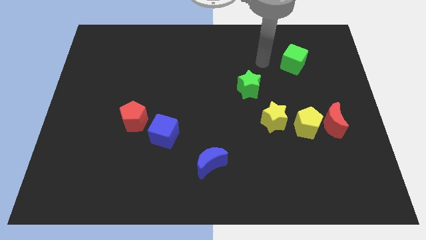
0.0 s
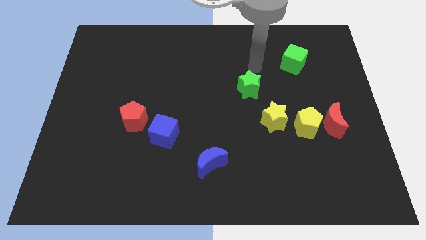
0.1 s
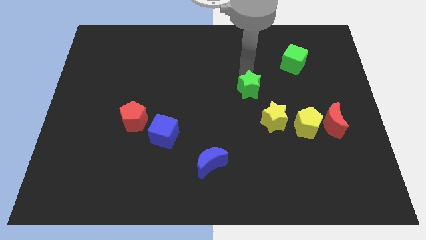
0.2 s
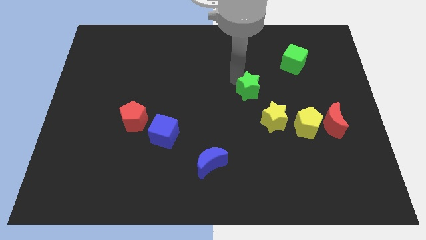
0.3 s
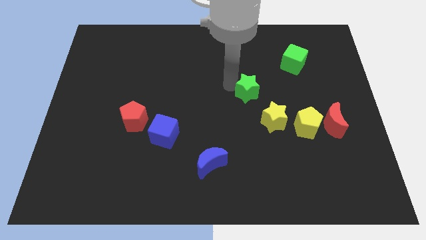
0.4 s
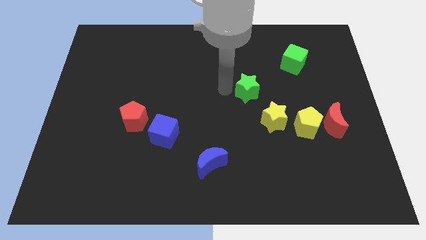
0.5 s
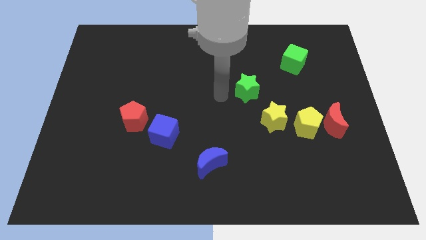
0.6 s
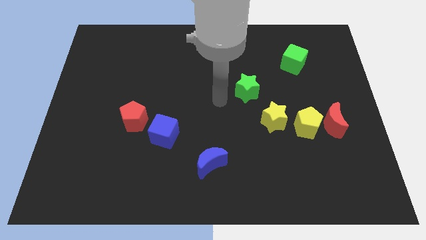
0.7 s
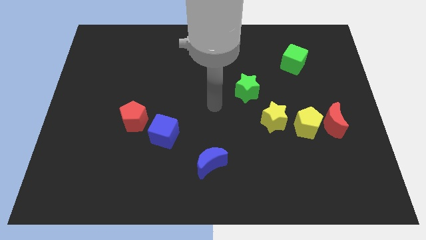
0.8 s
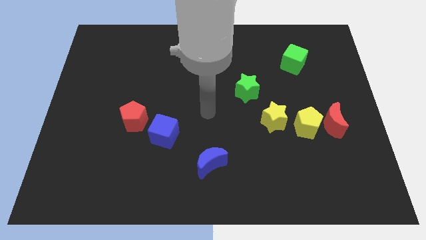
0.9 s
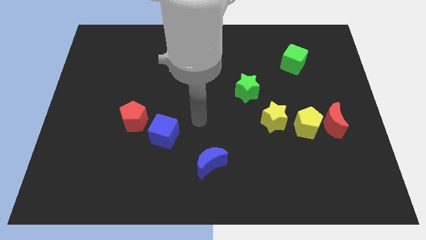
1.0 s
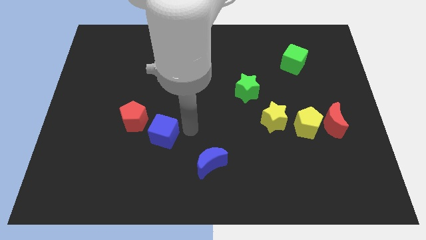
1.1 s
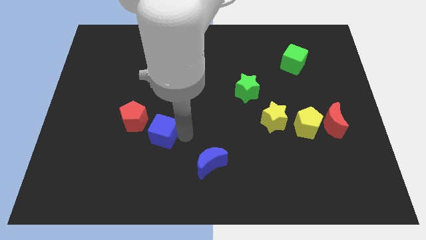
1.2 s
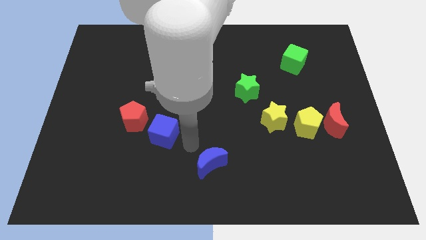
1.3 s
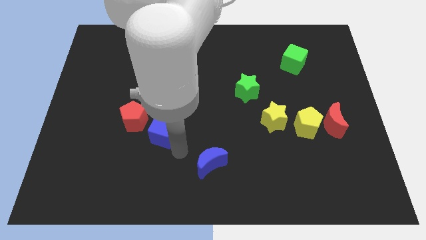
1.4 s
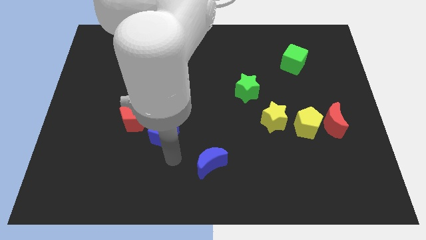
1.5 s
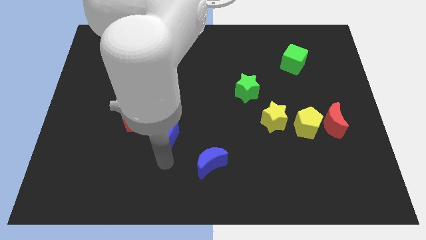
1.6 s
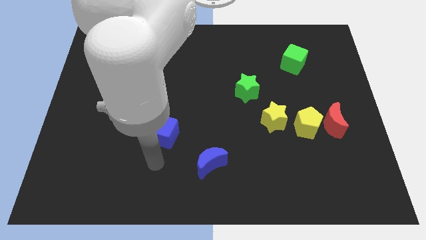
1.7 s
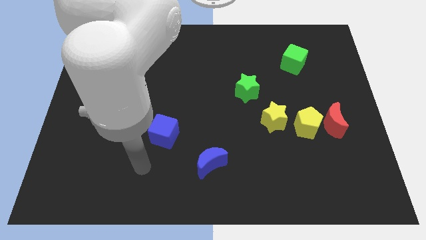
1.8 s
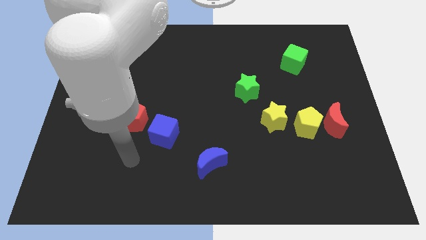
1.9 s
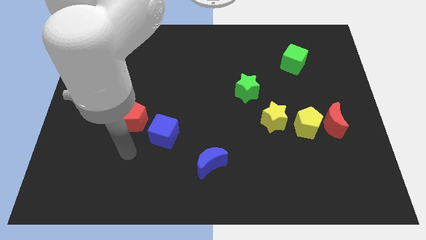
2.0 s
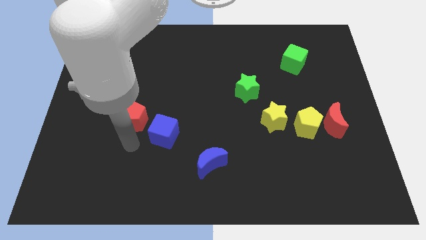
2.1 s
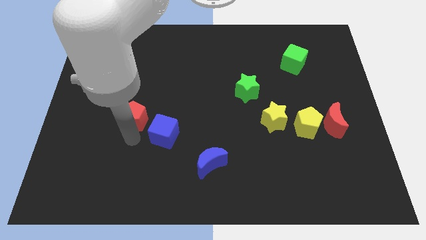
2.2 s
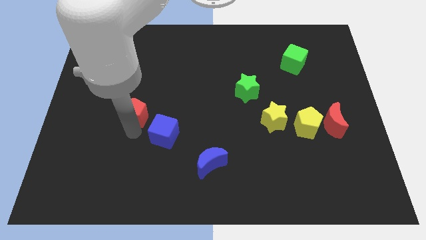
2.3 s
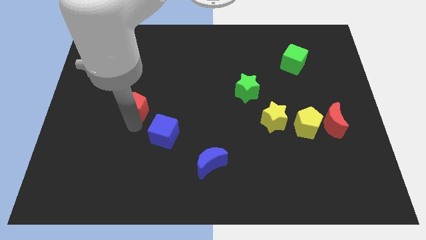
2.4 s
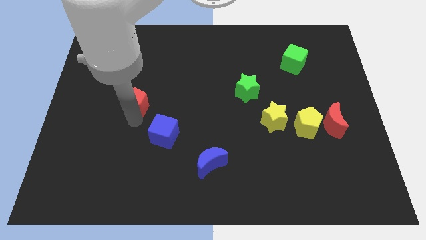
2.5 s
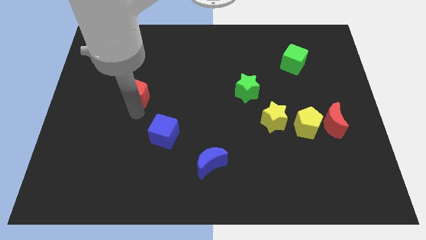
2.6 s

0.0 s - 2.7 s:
move the red pentagon up somewhat

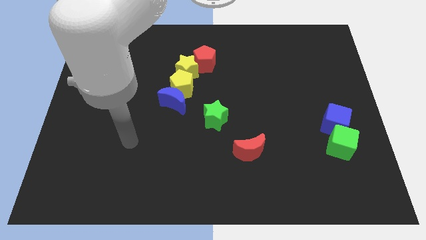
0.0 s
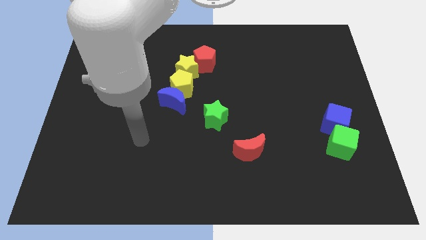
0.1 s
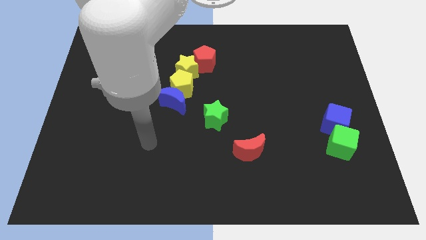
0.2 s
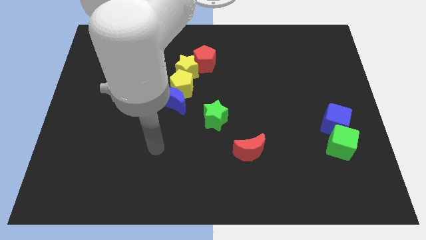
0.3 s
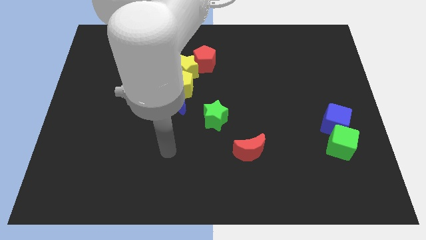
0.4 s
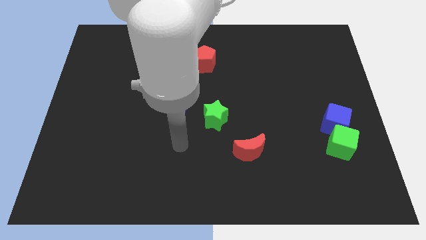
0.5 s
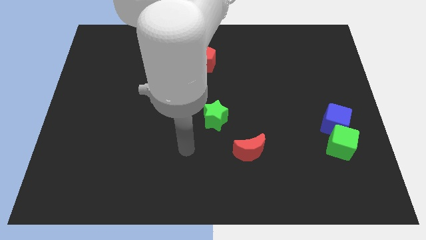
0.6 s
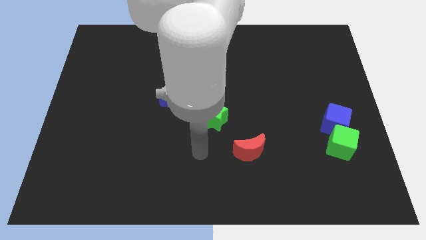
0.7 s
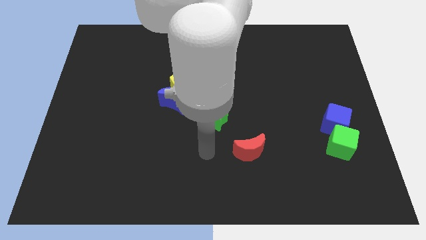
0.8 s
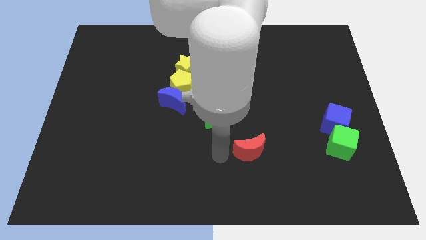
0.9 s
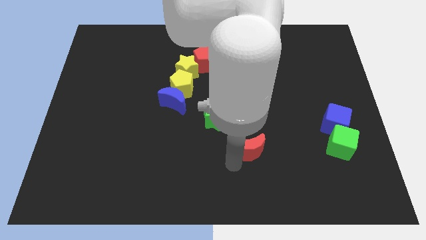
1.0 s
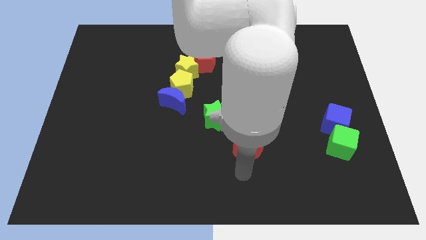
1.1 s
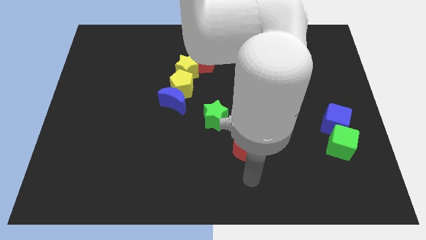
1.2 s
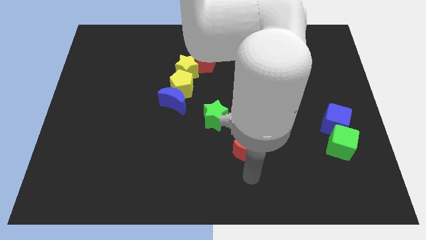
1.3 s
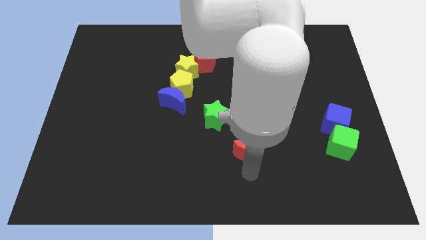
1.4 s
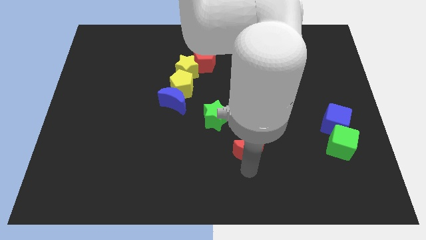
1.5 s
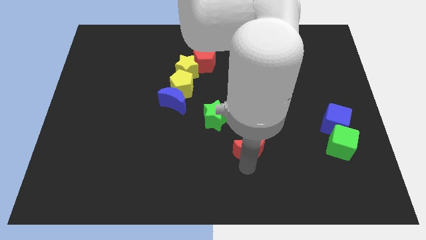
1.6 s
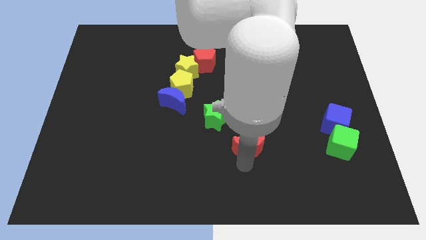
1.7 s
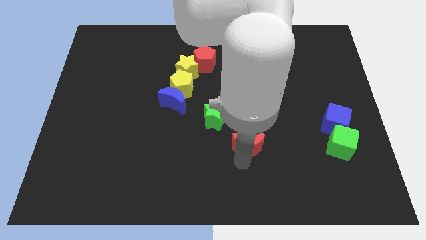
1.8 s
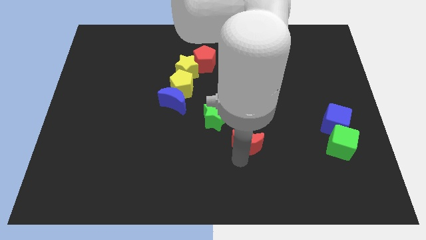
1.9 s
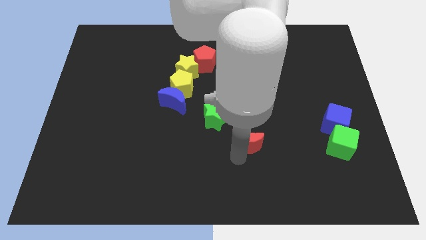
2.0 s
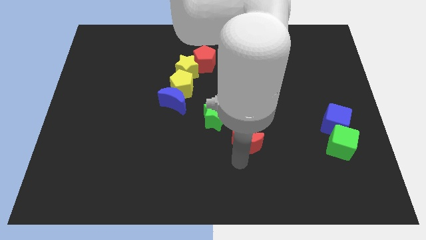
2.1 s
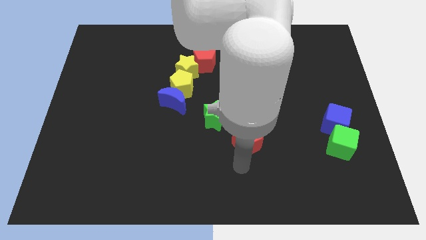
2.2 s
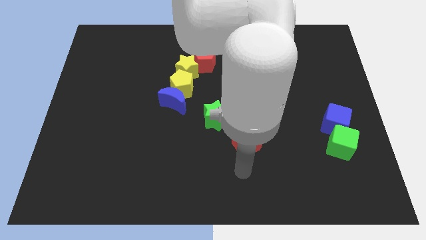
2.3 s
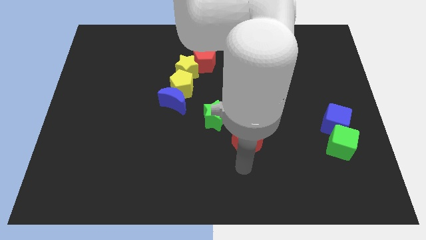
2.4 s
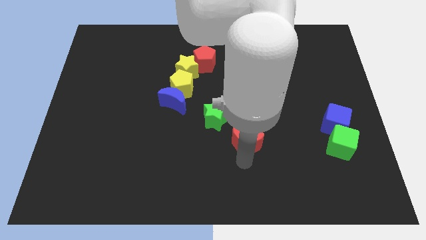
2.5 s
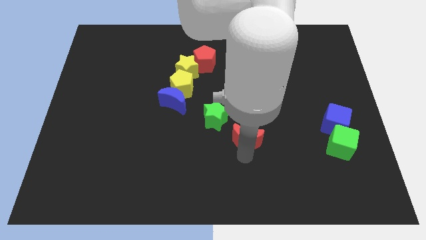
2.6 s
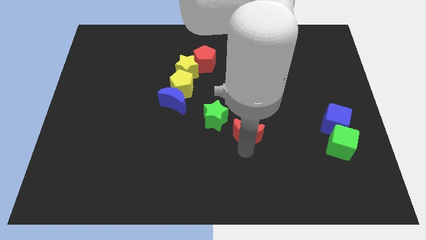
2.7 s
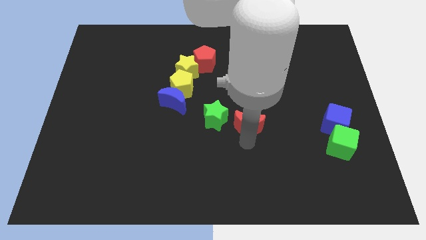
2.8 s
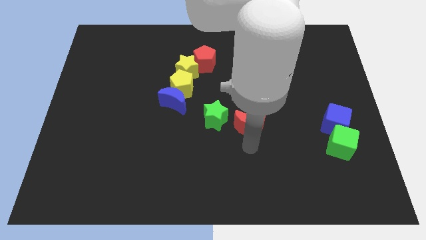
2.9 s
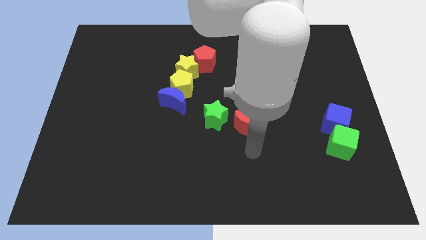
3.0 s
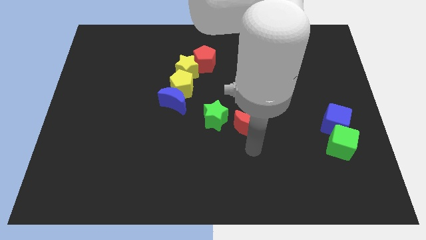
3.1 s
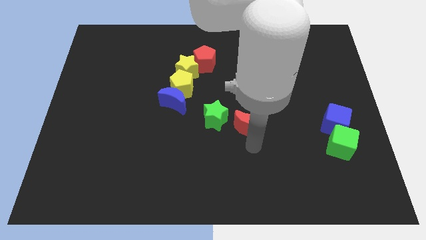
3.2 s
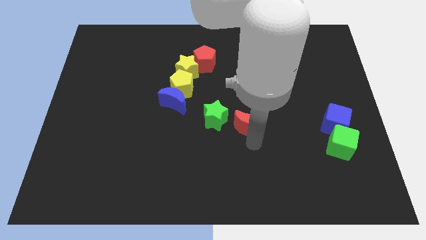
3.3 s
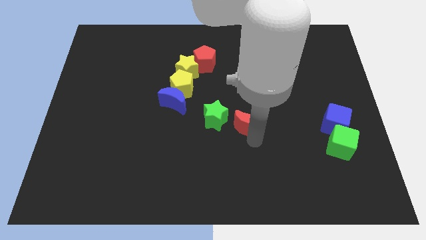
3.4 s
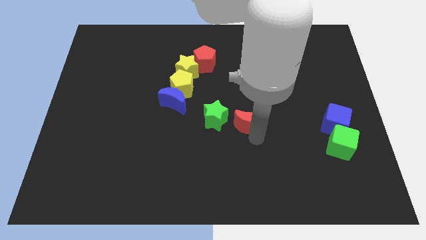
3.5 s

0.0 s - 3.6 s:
slightly push the red moon up

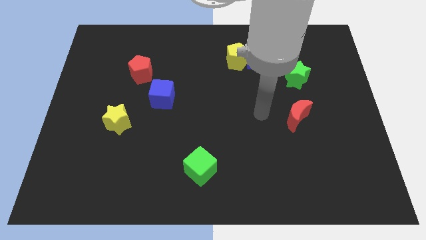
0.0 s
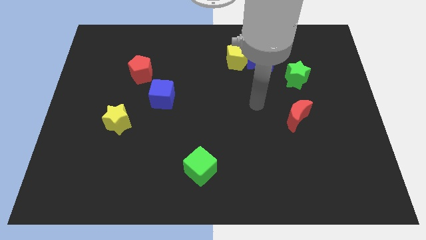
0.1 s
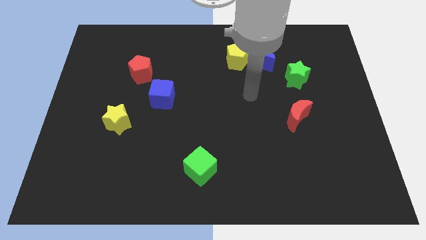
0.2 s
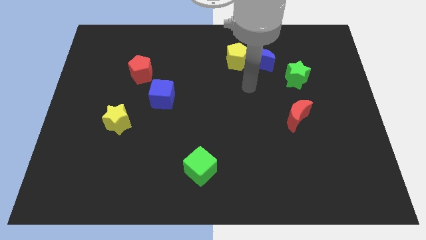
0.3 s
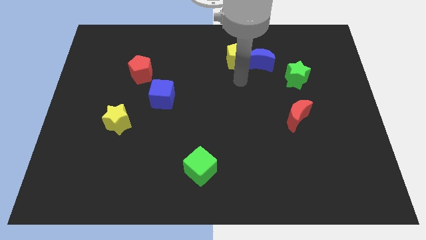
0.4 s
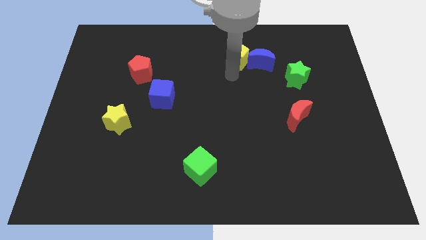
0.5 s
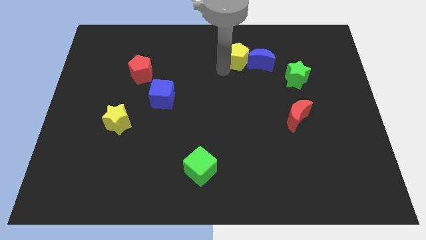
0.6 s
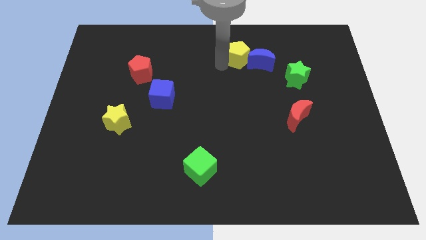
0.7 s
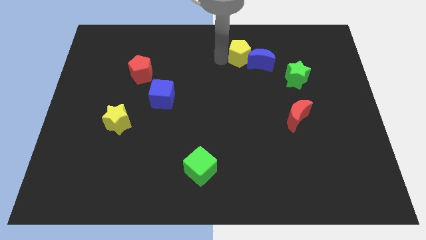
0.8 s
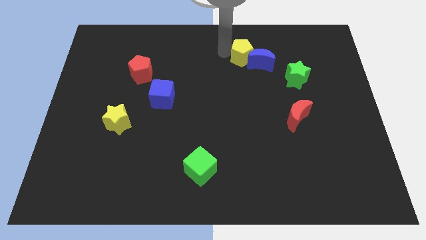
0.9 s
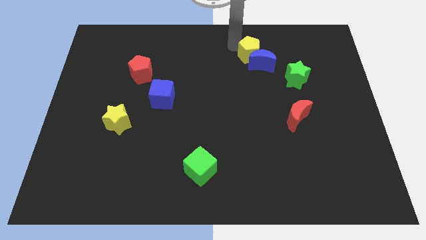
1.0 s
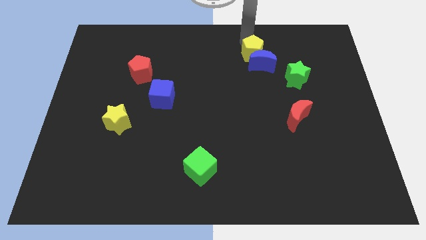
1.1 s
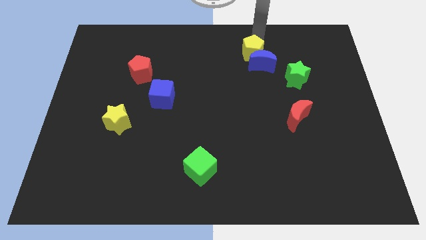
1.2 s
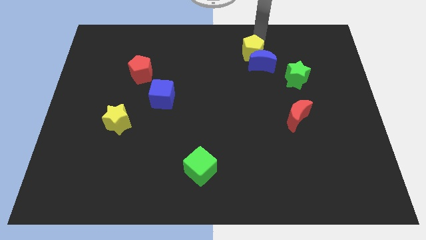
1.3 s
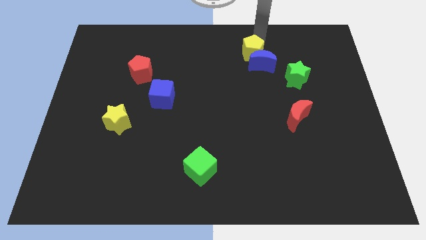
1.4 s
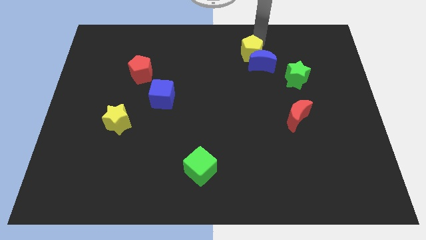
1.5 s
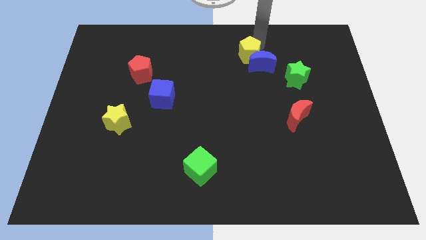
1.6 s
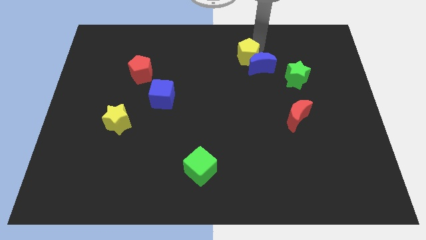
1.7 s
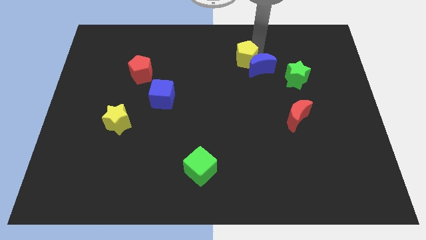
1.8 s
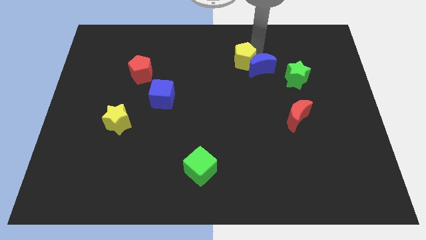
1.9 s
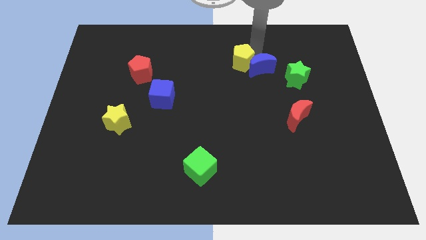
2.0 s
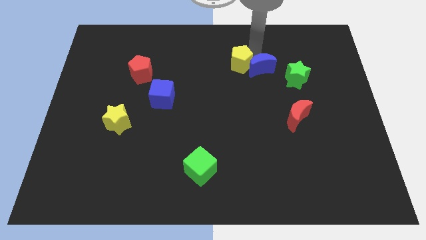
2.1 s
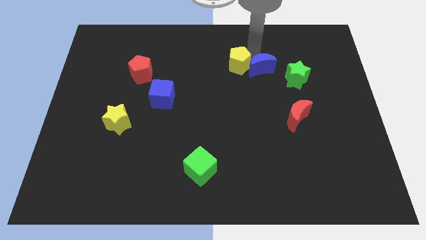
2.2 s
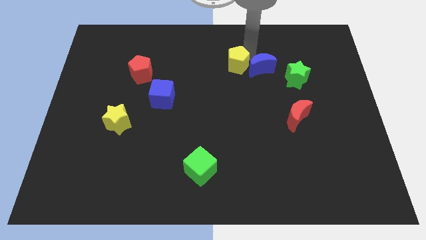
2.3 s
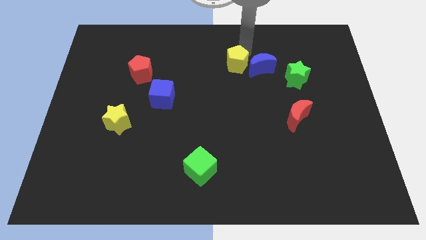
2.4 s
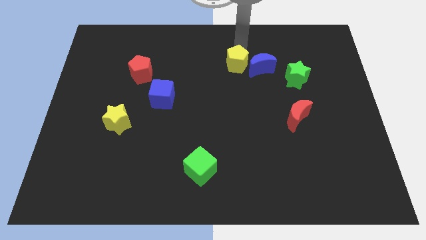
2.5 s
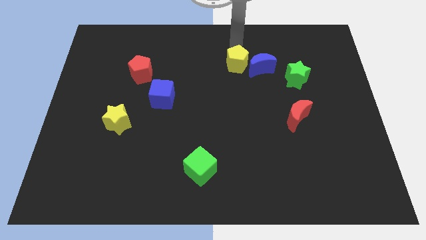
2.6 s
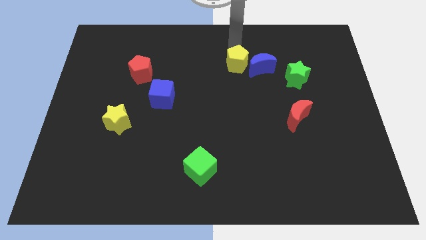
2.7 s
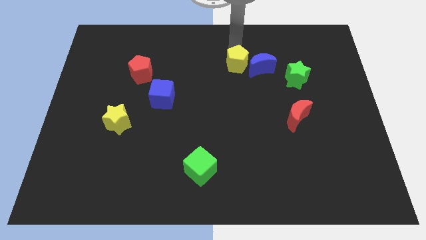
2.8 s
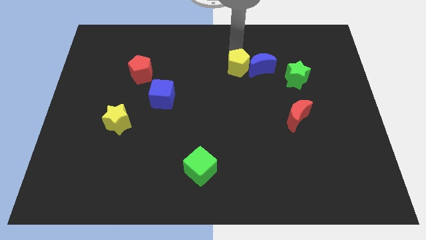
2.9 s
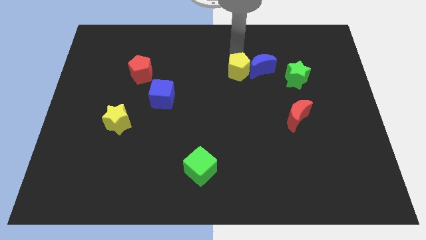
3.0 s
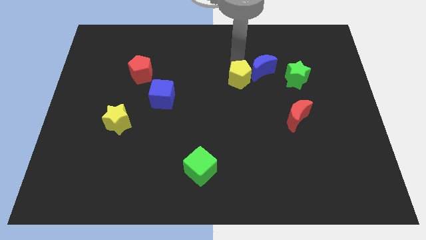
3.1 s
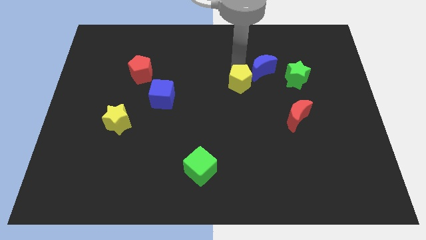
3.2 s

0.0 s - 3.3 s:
push the yellow pentagon downwards a little
